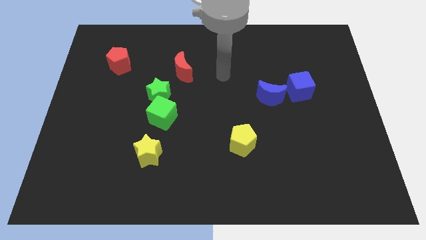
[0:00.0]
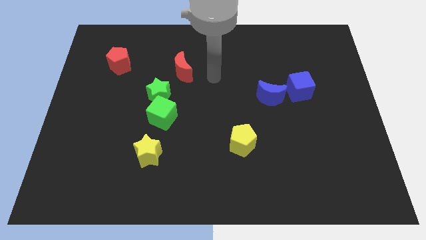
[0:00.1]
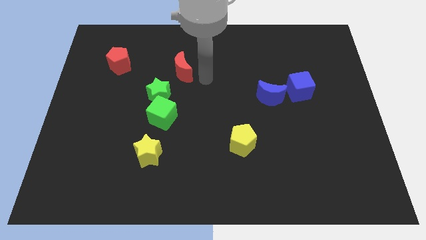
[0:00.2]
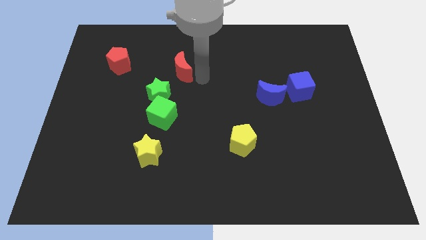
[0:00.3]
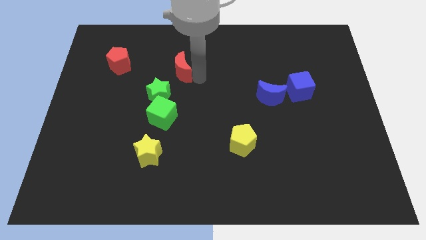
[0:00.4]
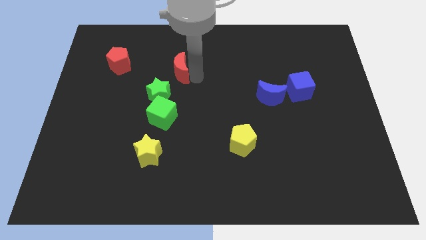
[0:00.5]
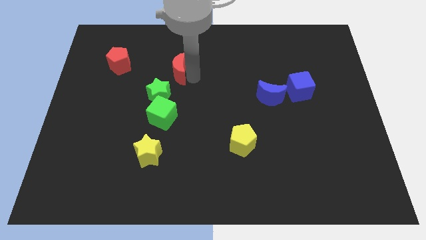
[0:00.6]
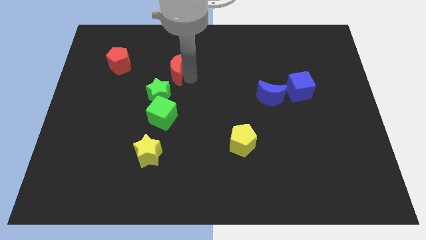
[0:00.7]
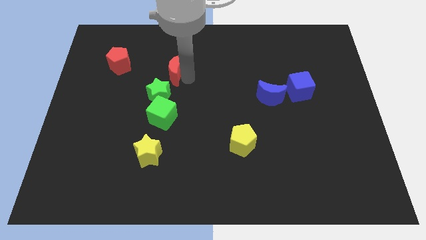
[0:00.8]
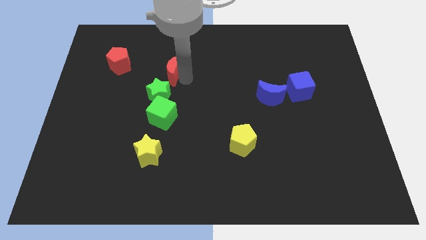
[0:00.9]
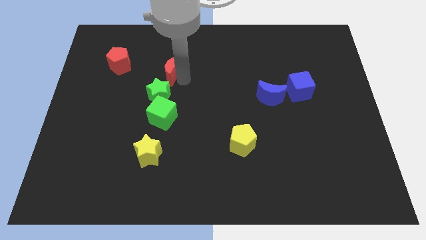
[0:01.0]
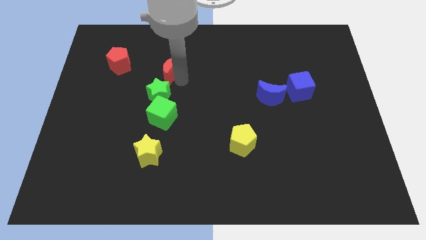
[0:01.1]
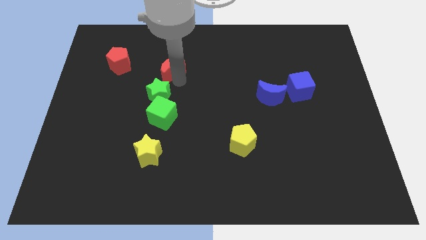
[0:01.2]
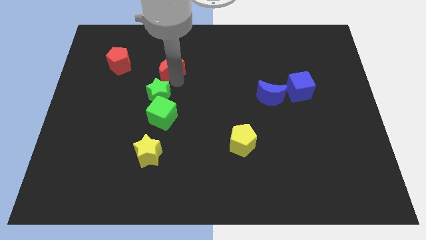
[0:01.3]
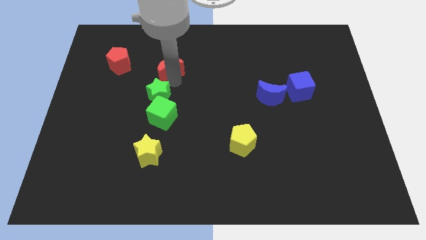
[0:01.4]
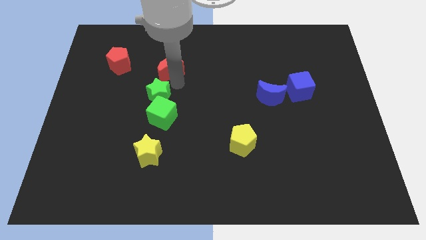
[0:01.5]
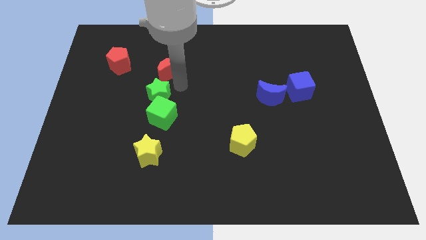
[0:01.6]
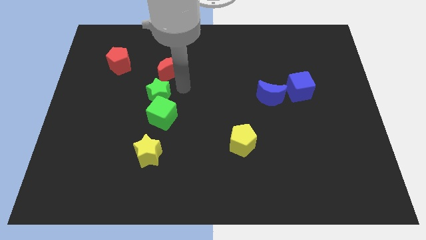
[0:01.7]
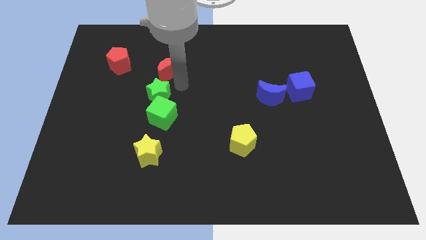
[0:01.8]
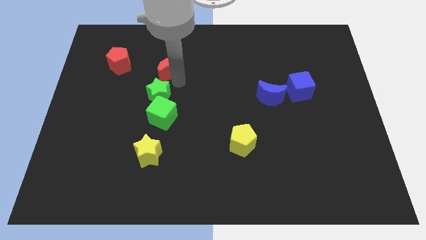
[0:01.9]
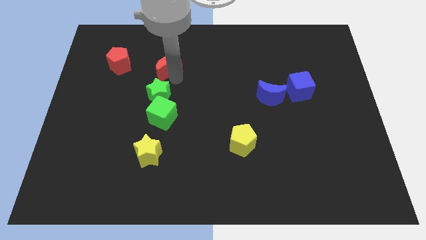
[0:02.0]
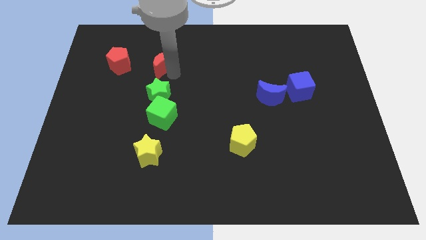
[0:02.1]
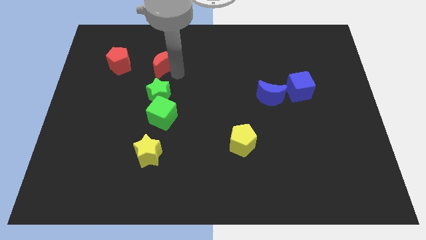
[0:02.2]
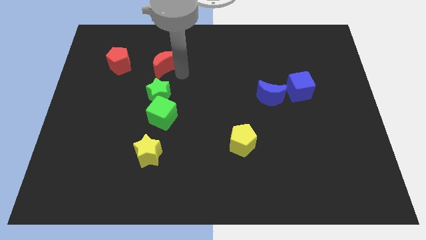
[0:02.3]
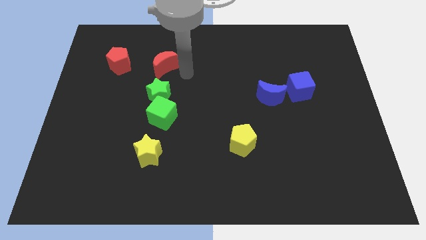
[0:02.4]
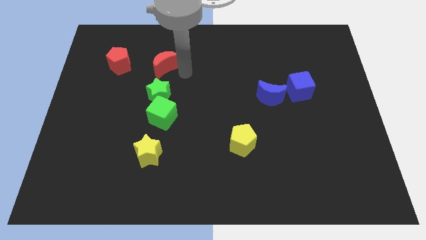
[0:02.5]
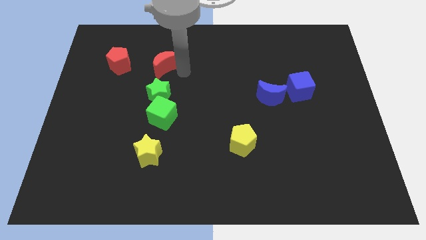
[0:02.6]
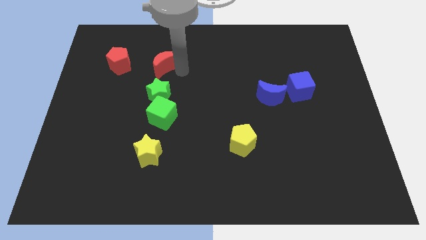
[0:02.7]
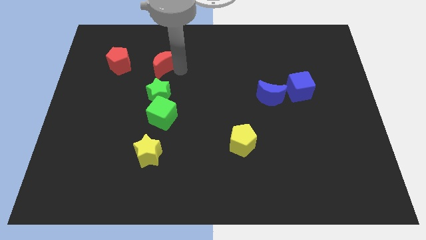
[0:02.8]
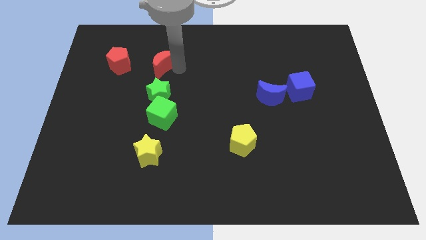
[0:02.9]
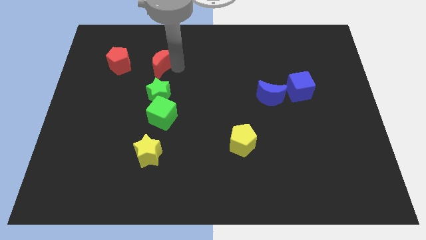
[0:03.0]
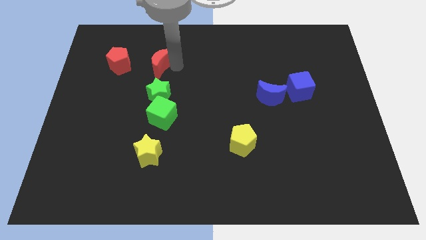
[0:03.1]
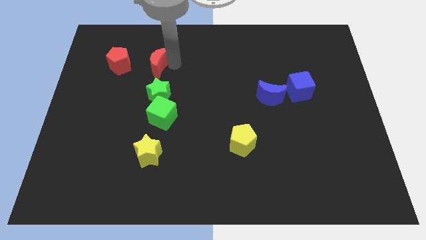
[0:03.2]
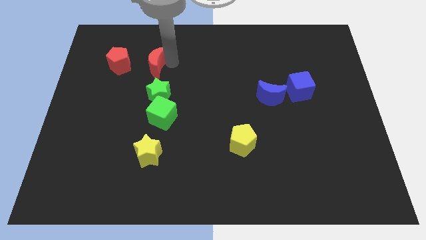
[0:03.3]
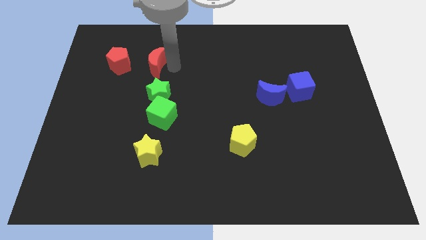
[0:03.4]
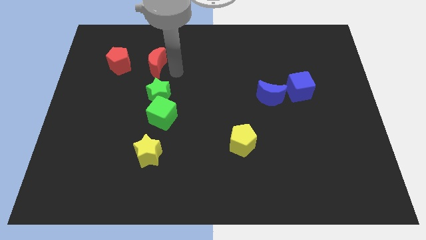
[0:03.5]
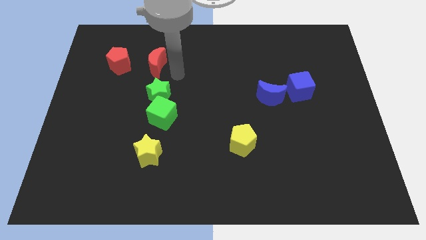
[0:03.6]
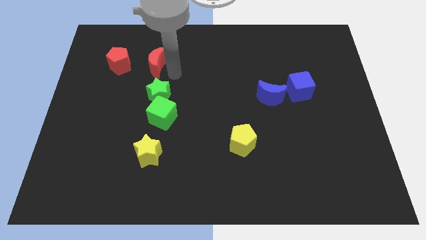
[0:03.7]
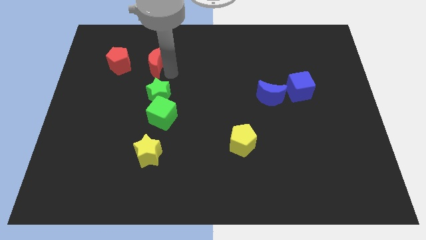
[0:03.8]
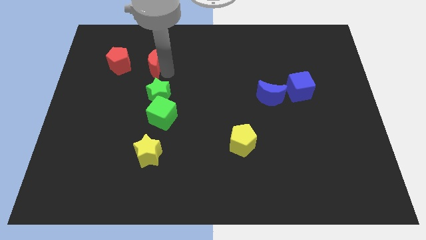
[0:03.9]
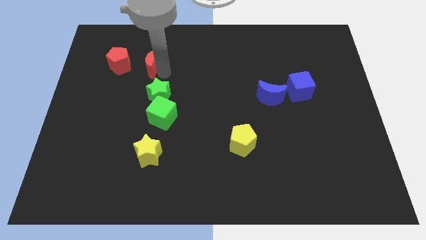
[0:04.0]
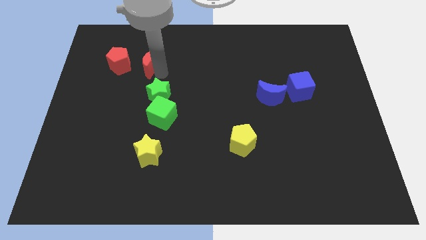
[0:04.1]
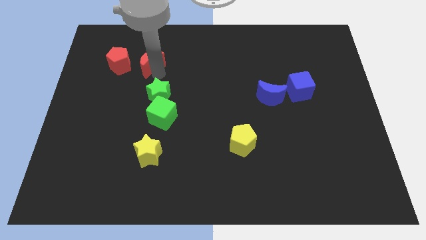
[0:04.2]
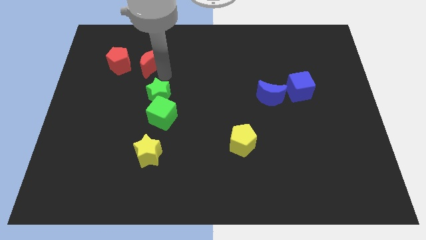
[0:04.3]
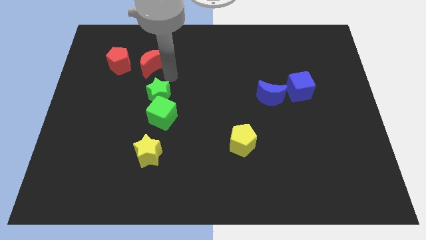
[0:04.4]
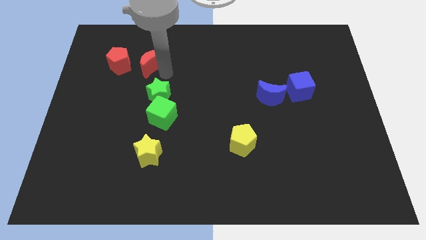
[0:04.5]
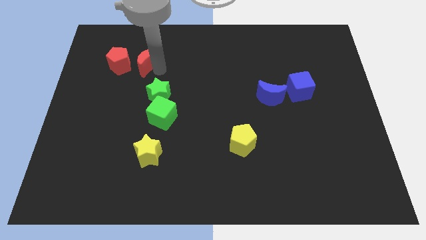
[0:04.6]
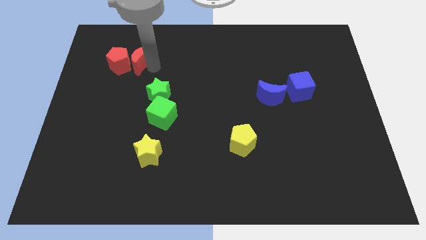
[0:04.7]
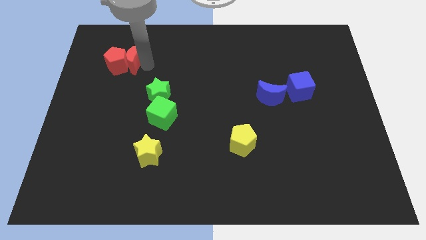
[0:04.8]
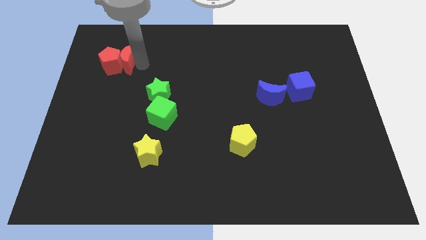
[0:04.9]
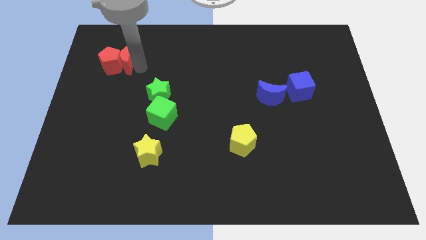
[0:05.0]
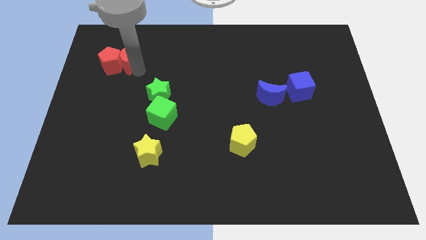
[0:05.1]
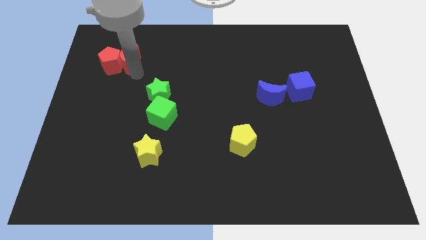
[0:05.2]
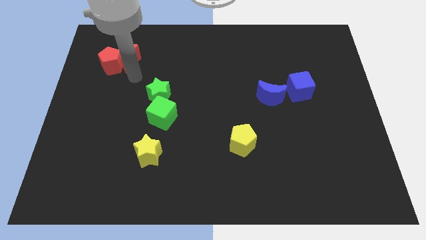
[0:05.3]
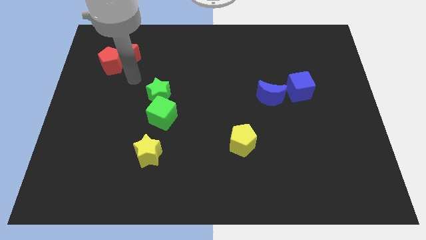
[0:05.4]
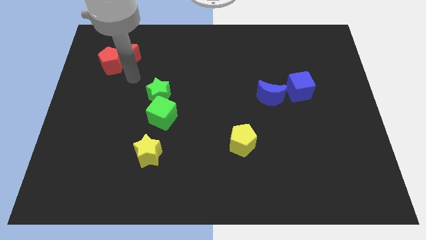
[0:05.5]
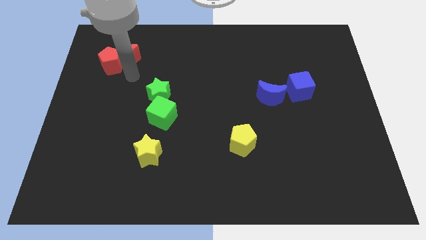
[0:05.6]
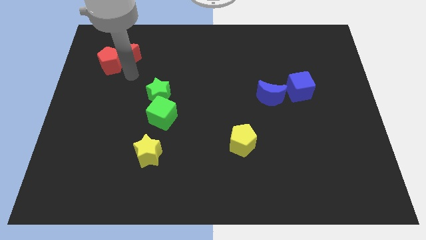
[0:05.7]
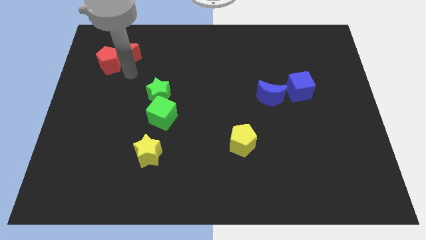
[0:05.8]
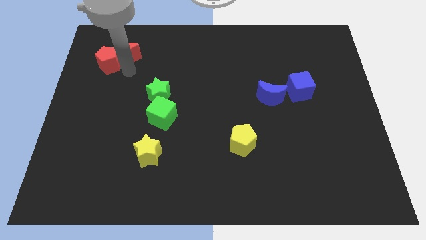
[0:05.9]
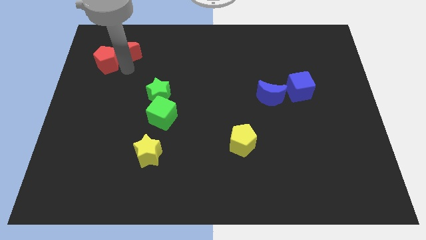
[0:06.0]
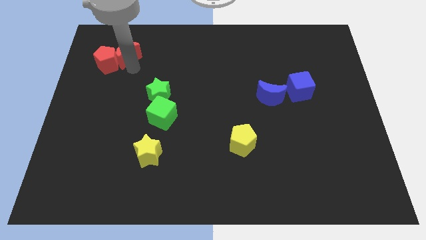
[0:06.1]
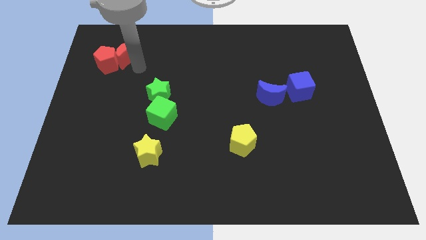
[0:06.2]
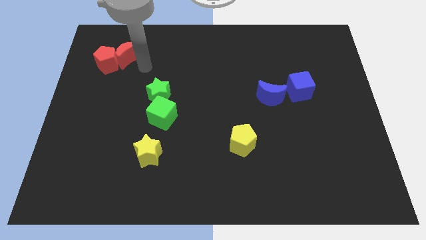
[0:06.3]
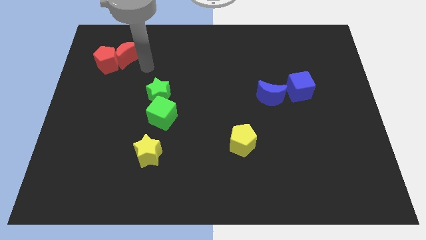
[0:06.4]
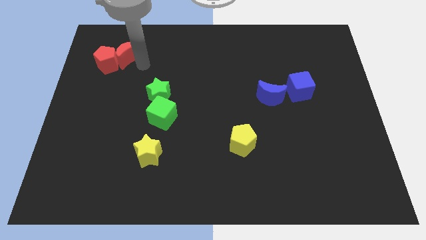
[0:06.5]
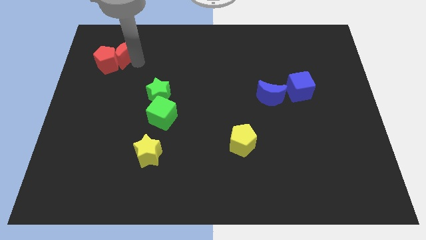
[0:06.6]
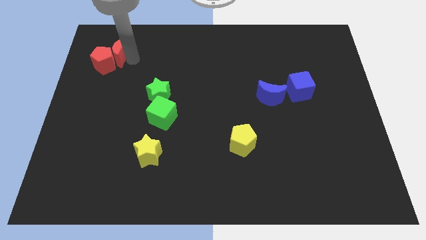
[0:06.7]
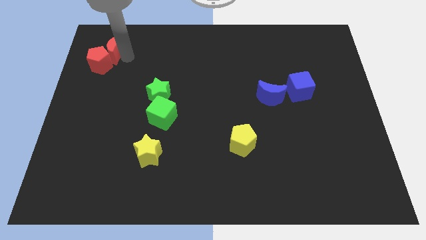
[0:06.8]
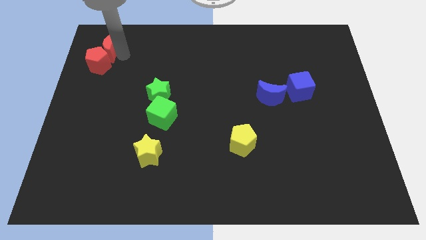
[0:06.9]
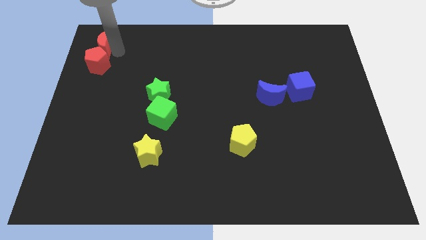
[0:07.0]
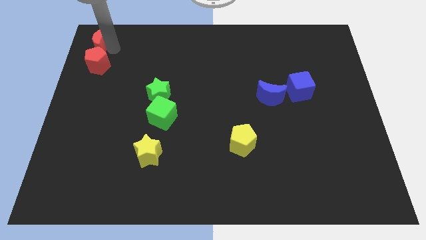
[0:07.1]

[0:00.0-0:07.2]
slide the red moon to the top left of the board
